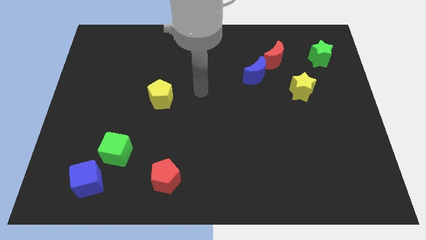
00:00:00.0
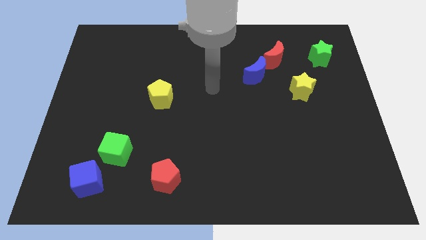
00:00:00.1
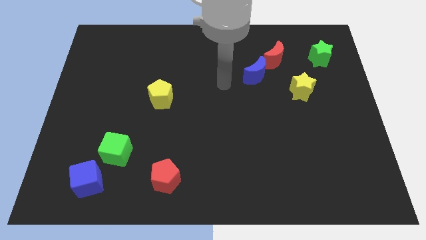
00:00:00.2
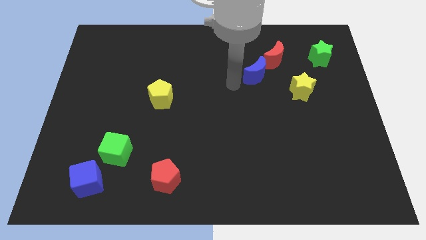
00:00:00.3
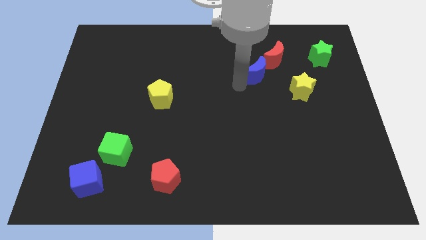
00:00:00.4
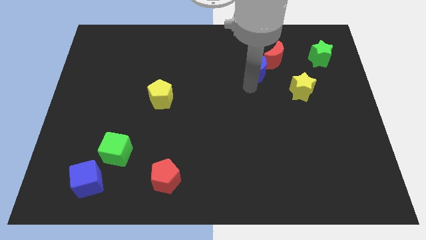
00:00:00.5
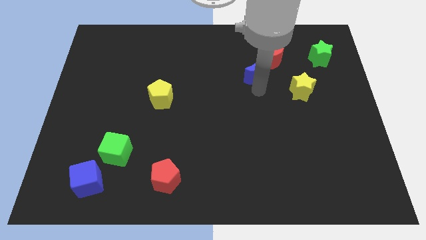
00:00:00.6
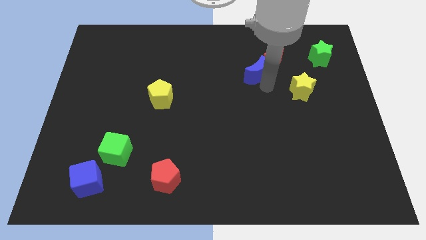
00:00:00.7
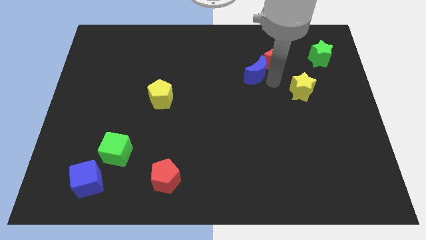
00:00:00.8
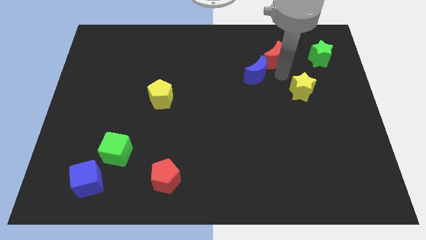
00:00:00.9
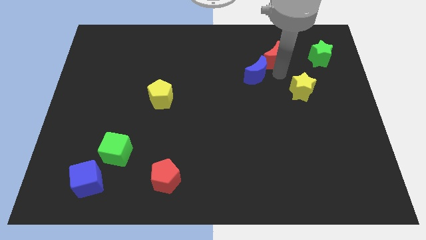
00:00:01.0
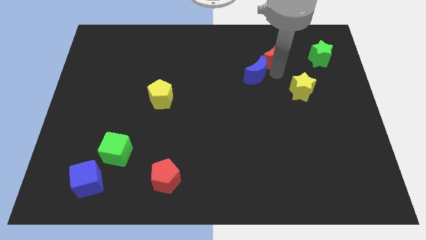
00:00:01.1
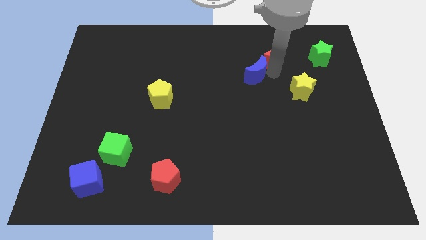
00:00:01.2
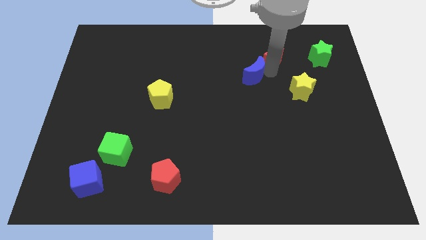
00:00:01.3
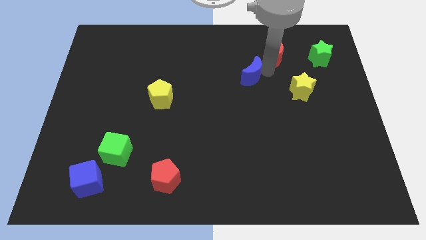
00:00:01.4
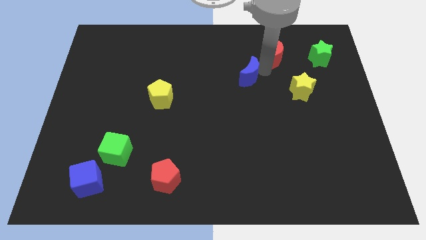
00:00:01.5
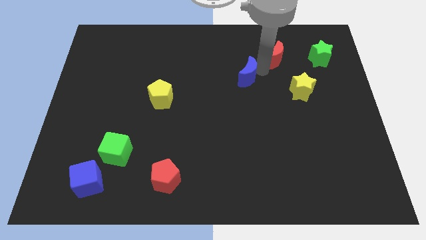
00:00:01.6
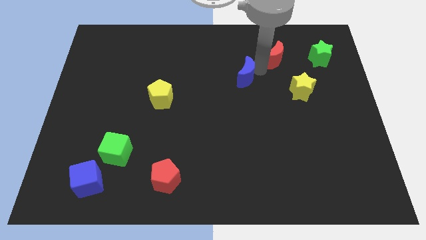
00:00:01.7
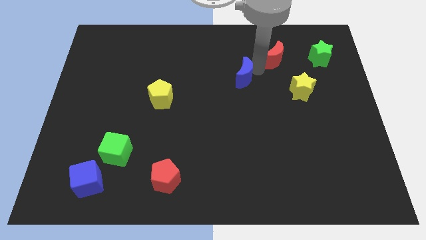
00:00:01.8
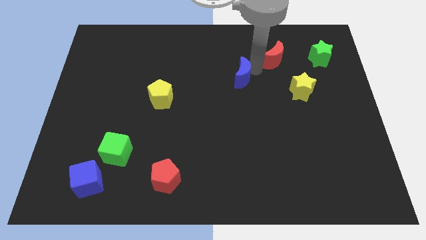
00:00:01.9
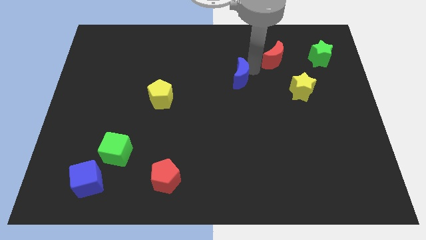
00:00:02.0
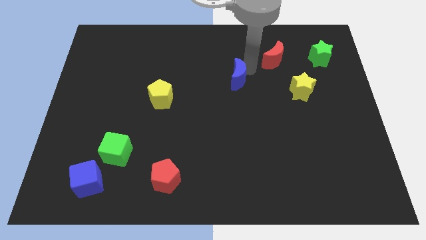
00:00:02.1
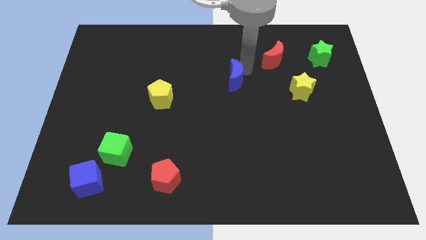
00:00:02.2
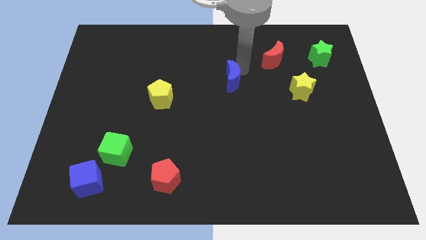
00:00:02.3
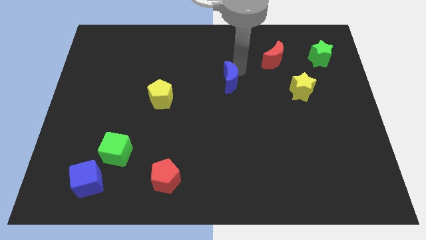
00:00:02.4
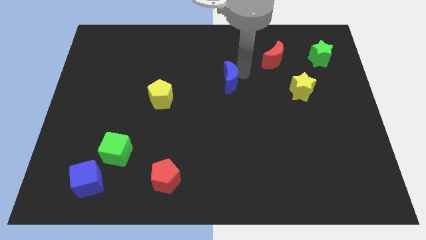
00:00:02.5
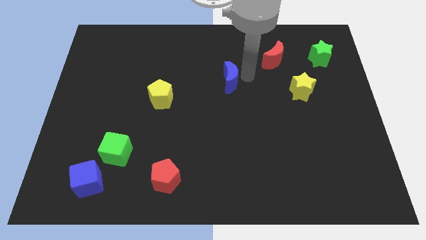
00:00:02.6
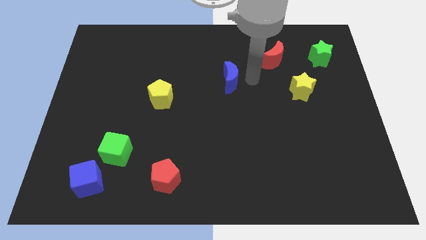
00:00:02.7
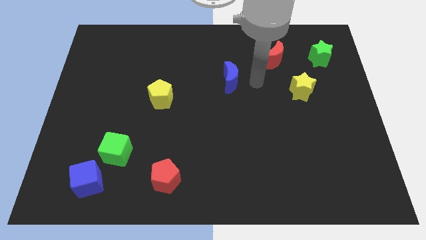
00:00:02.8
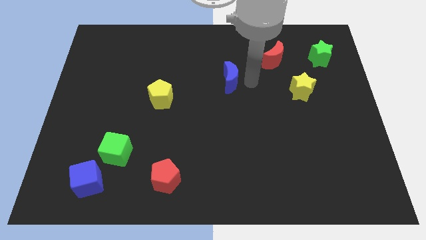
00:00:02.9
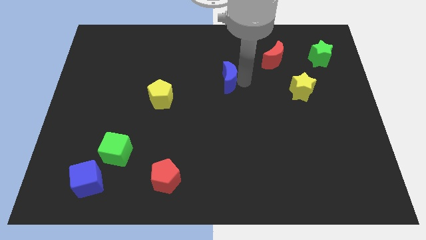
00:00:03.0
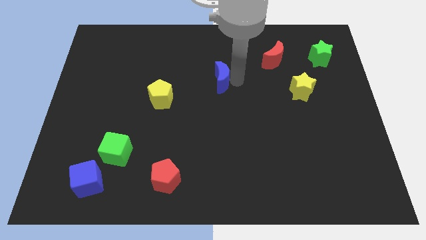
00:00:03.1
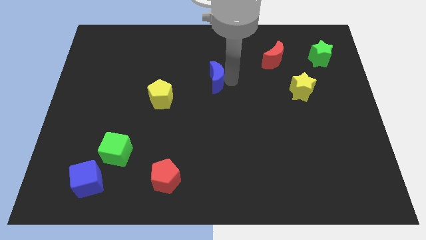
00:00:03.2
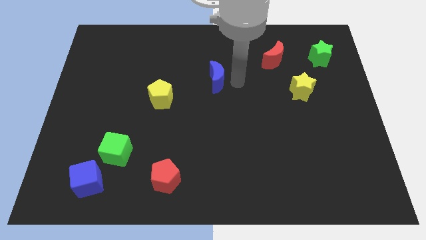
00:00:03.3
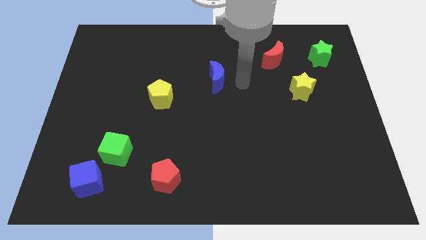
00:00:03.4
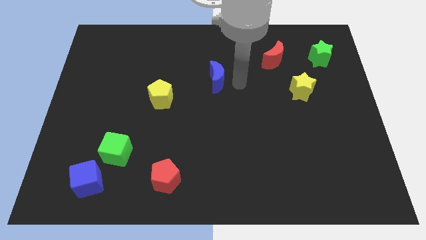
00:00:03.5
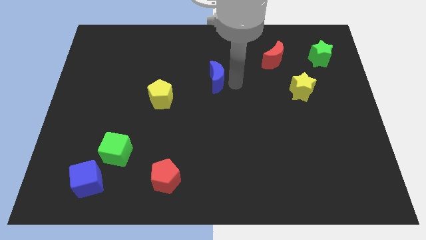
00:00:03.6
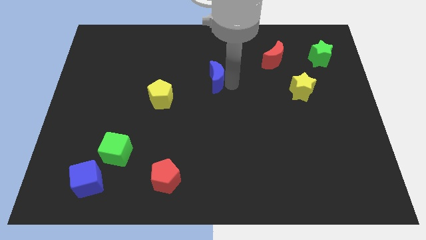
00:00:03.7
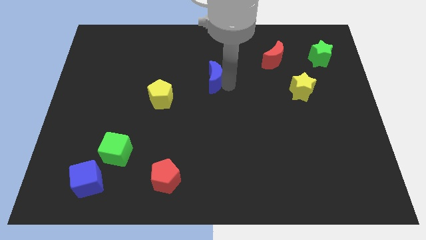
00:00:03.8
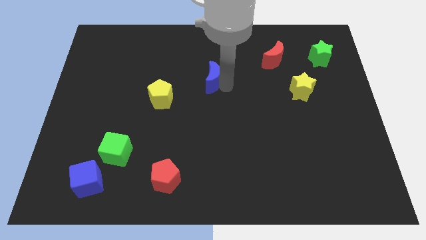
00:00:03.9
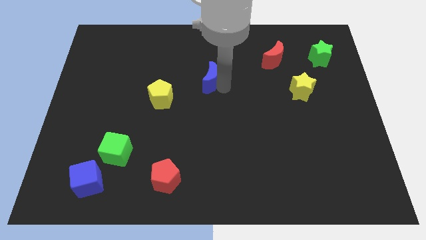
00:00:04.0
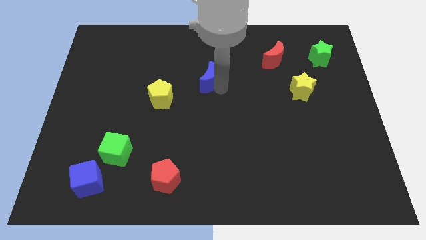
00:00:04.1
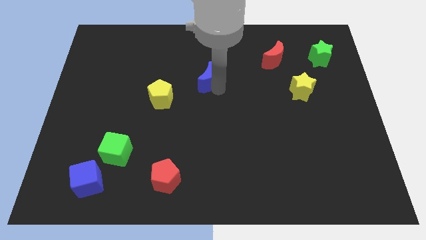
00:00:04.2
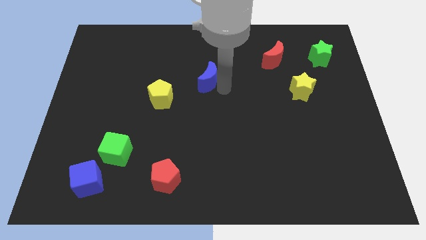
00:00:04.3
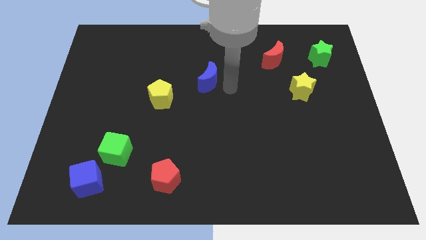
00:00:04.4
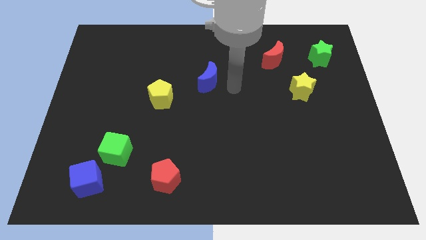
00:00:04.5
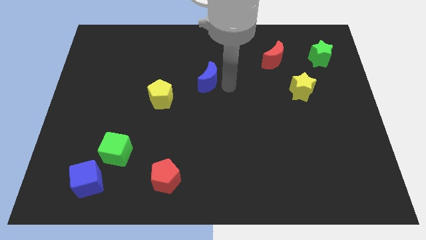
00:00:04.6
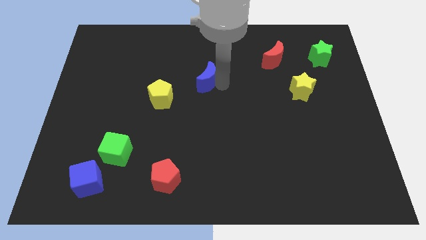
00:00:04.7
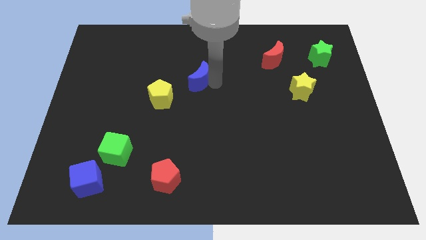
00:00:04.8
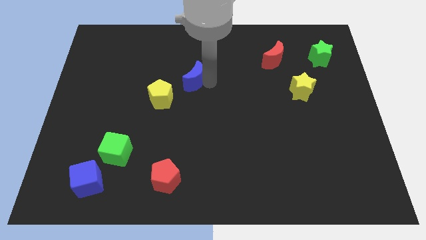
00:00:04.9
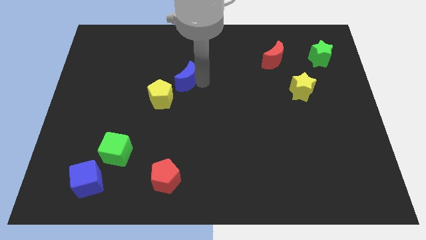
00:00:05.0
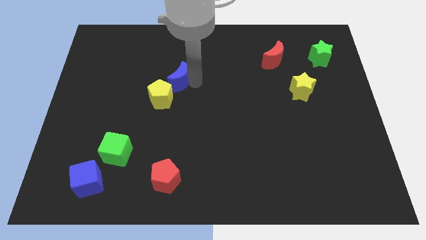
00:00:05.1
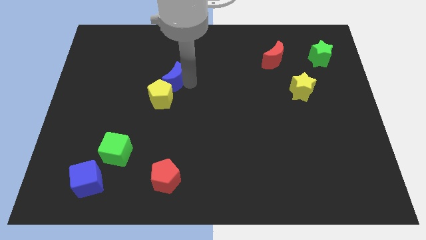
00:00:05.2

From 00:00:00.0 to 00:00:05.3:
push the blue moon left

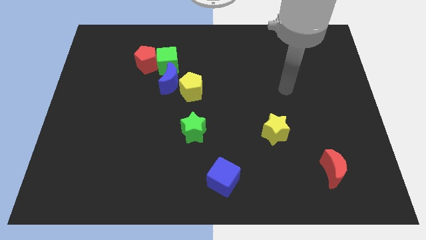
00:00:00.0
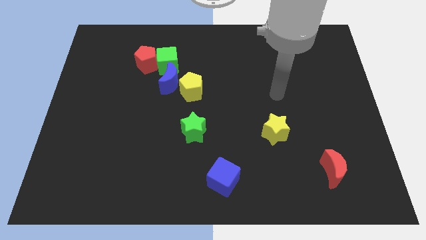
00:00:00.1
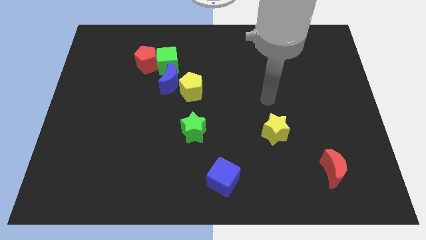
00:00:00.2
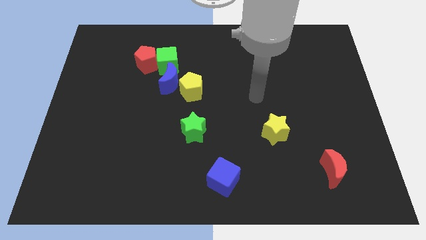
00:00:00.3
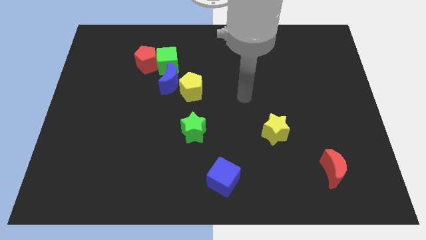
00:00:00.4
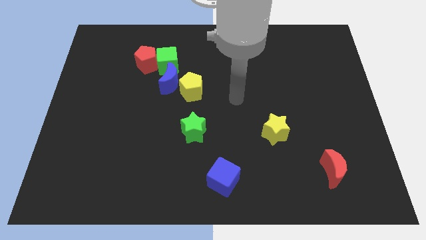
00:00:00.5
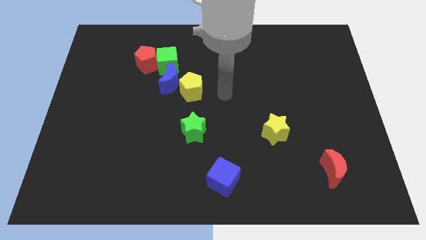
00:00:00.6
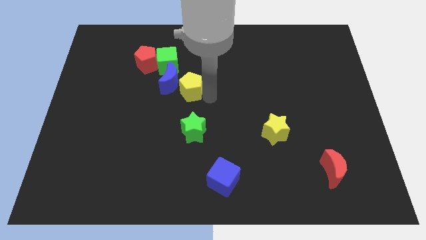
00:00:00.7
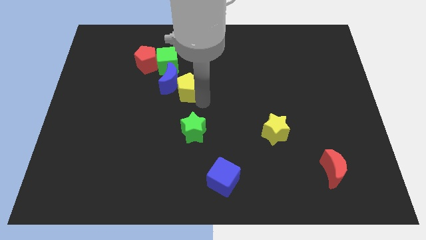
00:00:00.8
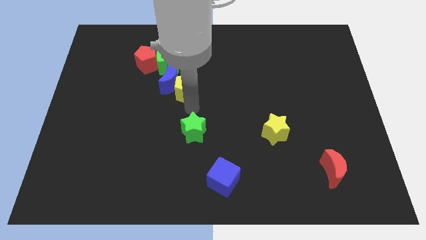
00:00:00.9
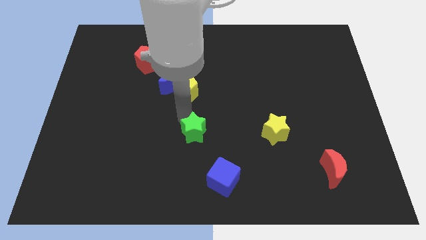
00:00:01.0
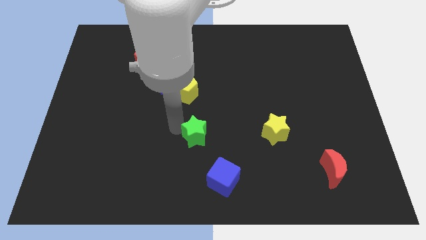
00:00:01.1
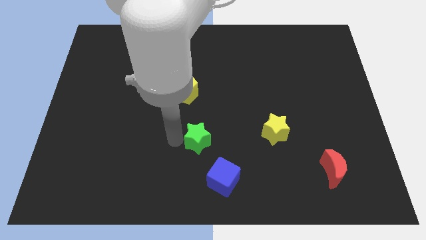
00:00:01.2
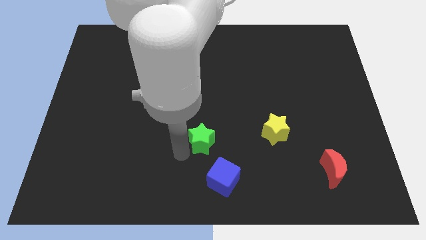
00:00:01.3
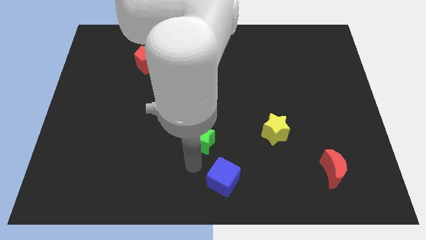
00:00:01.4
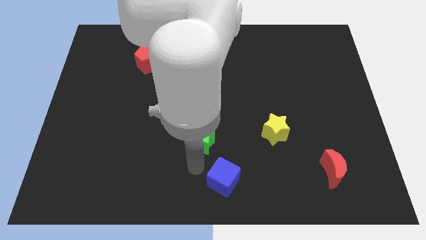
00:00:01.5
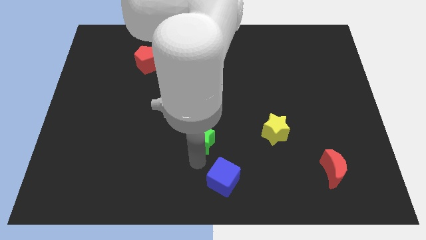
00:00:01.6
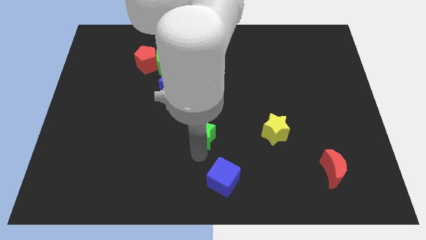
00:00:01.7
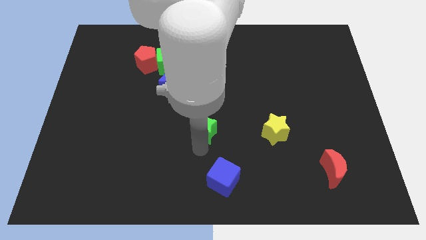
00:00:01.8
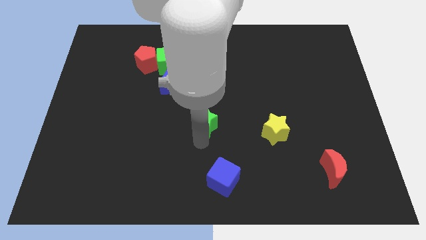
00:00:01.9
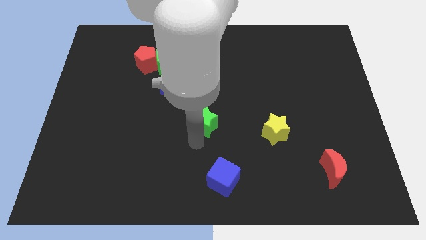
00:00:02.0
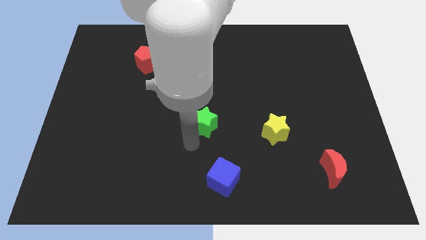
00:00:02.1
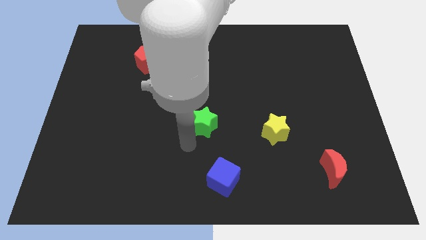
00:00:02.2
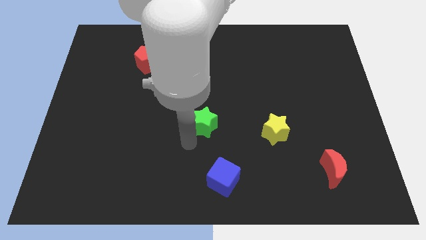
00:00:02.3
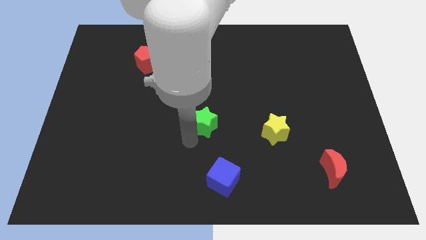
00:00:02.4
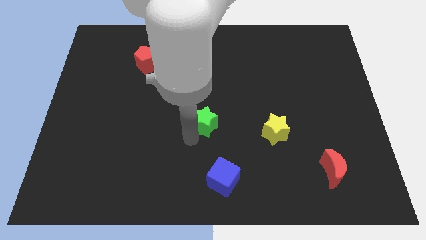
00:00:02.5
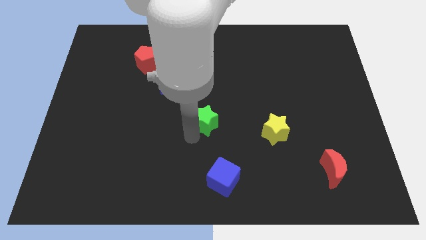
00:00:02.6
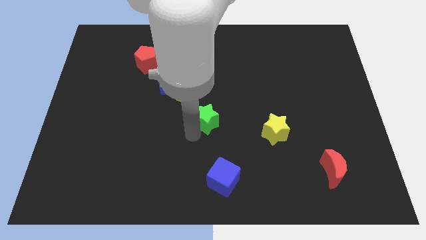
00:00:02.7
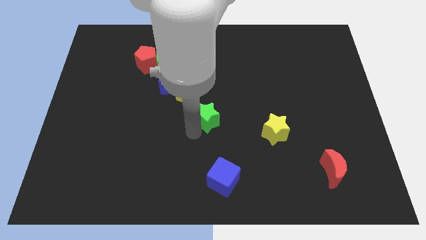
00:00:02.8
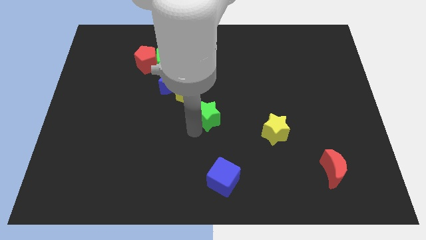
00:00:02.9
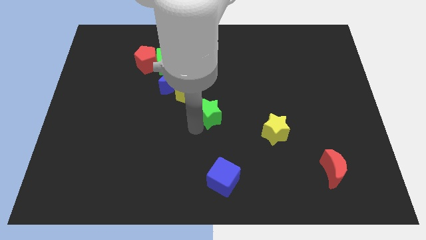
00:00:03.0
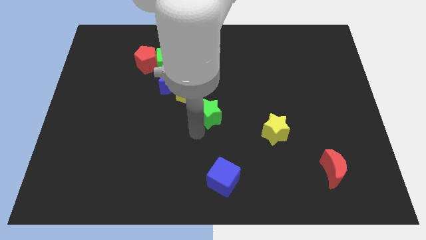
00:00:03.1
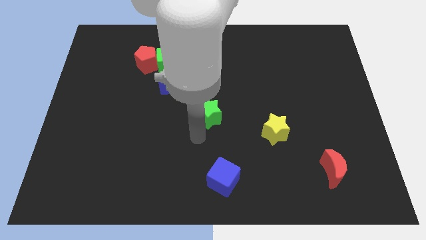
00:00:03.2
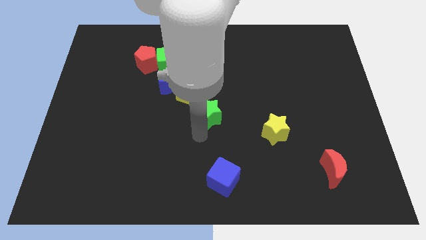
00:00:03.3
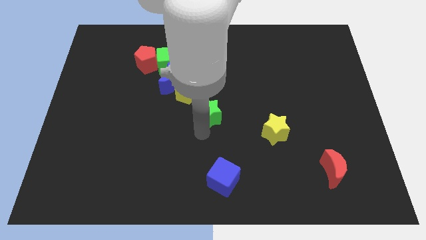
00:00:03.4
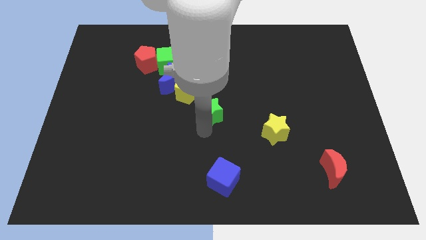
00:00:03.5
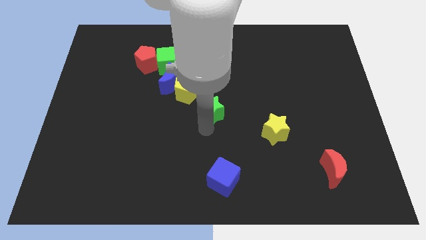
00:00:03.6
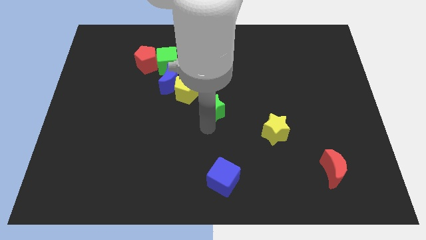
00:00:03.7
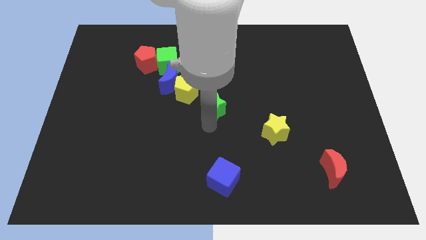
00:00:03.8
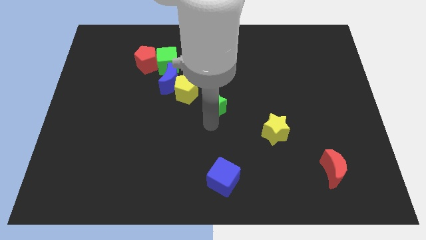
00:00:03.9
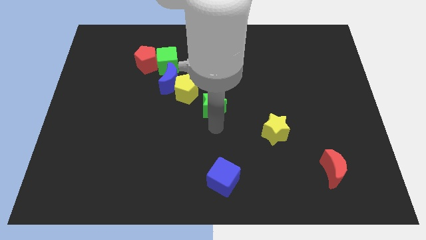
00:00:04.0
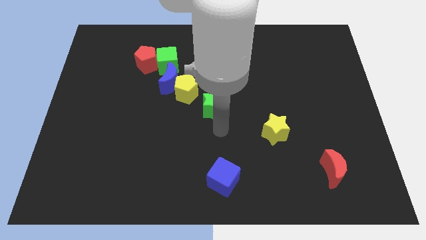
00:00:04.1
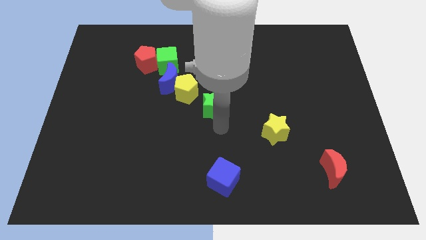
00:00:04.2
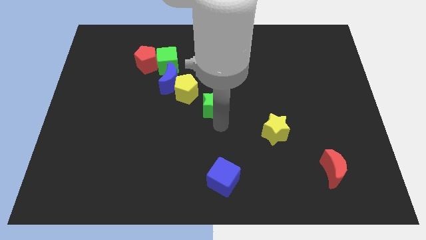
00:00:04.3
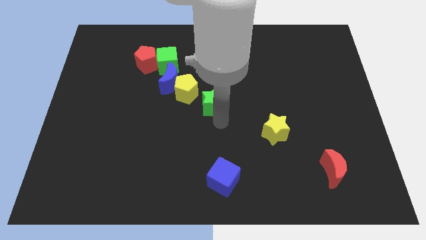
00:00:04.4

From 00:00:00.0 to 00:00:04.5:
push the green star a little bit up
